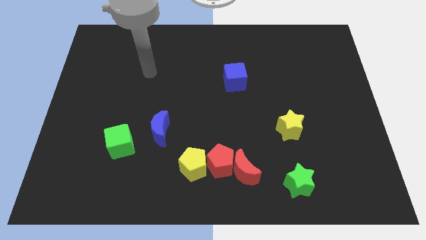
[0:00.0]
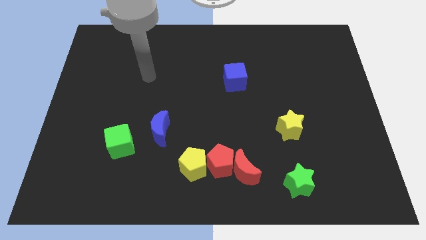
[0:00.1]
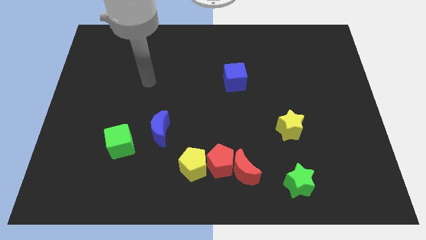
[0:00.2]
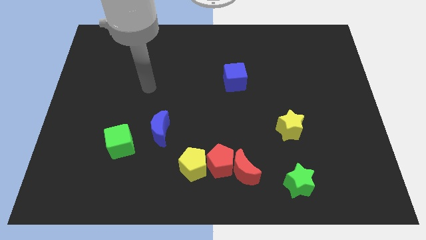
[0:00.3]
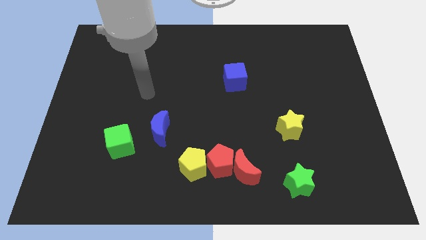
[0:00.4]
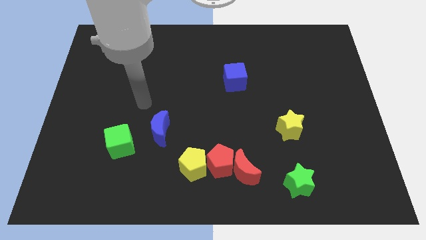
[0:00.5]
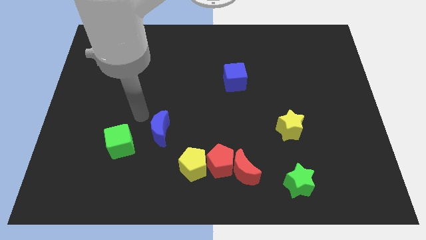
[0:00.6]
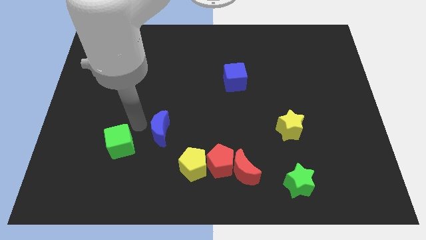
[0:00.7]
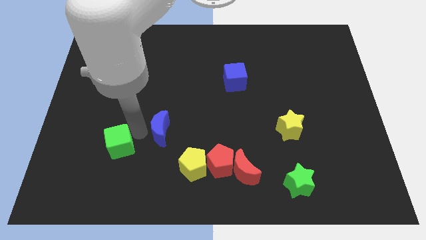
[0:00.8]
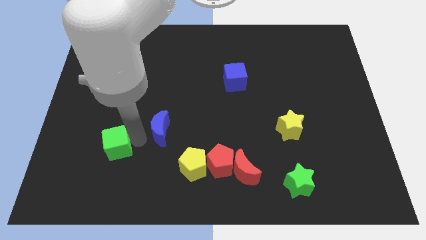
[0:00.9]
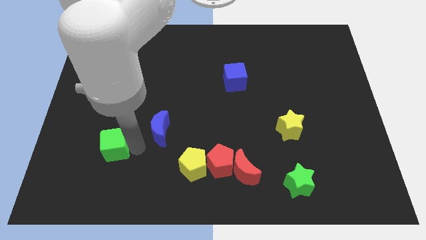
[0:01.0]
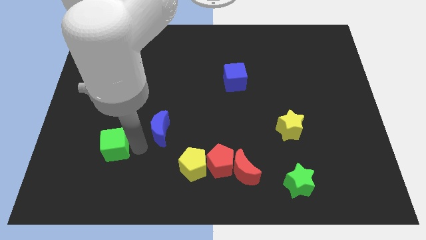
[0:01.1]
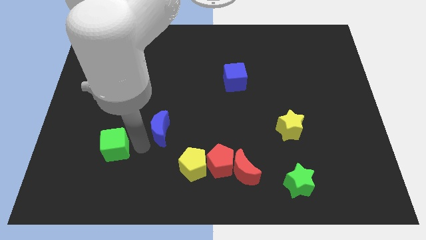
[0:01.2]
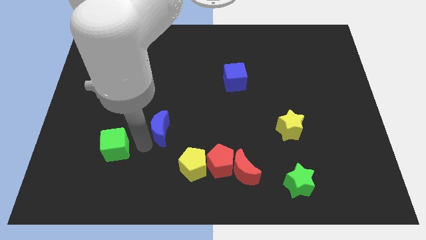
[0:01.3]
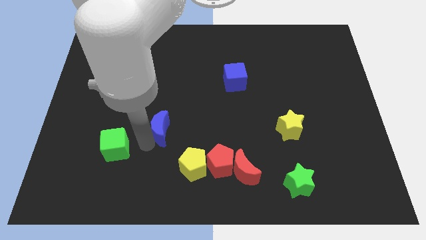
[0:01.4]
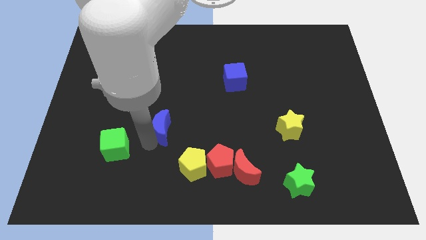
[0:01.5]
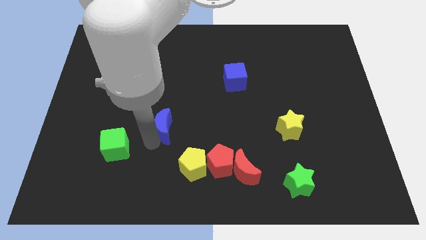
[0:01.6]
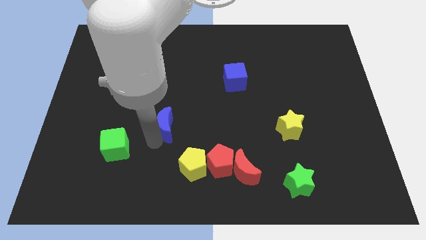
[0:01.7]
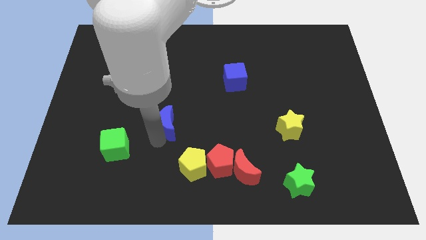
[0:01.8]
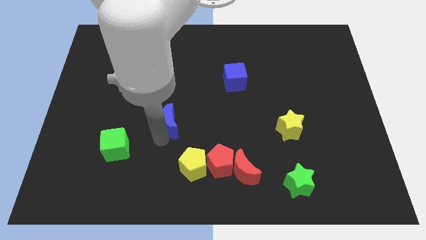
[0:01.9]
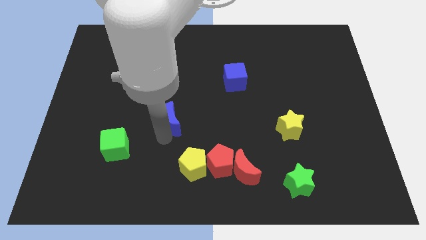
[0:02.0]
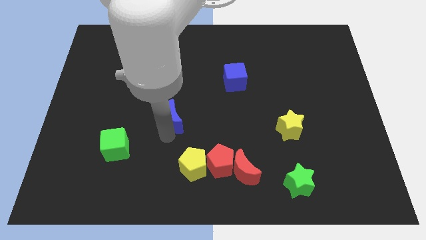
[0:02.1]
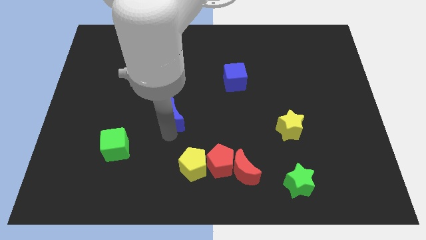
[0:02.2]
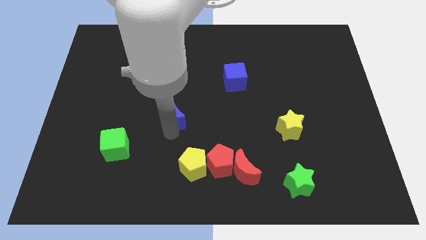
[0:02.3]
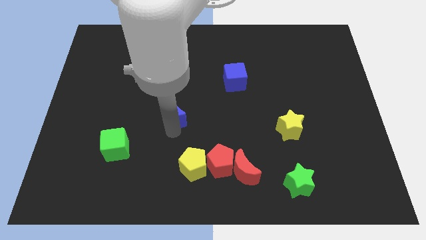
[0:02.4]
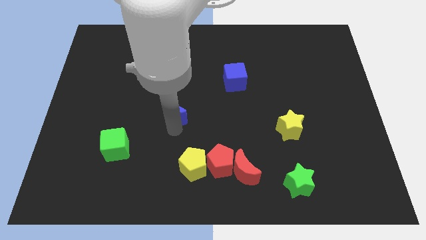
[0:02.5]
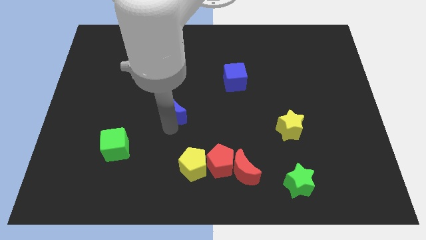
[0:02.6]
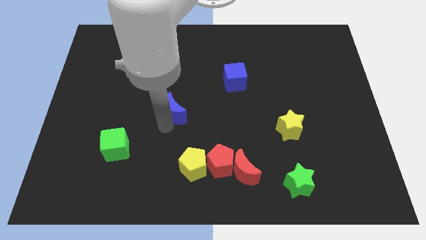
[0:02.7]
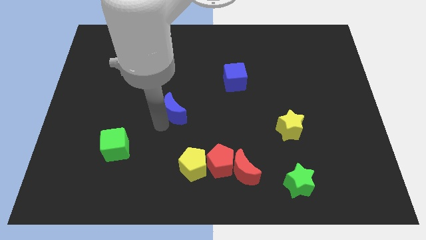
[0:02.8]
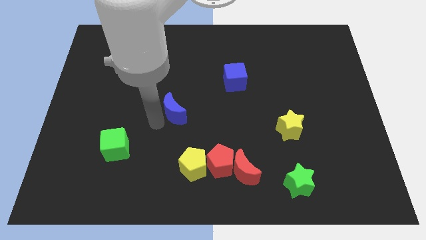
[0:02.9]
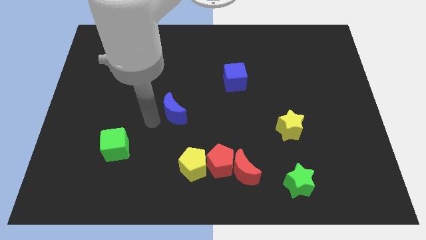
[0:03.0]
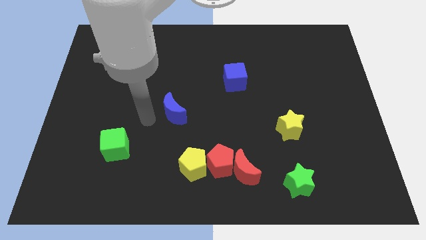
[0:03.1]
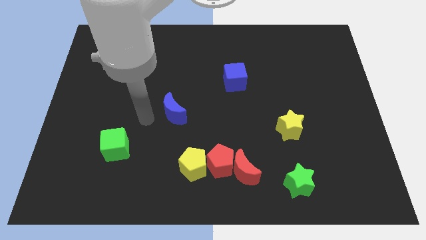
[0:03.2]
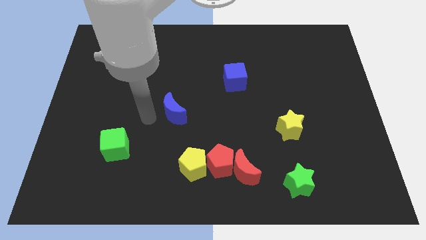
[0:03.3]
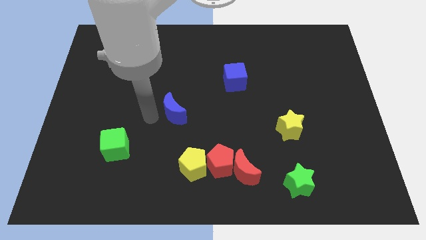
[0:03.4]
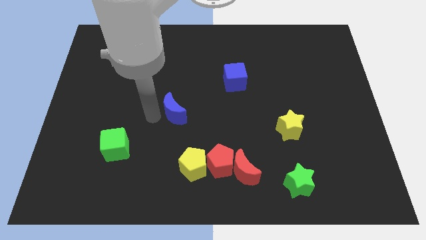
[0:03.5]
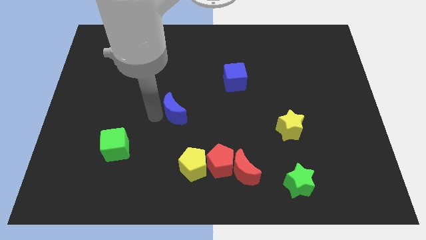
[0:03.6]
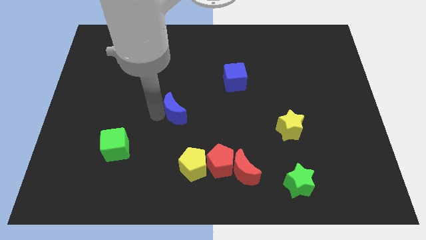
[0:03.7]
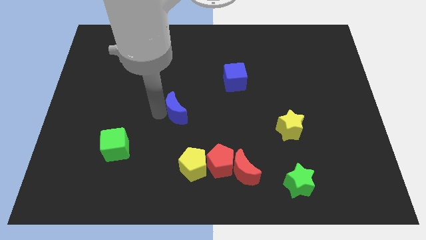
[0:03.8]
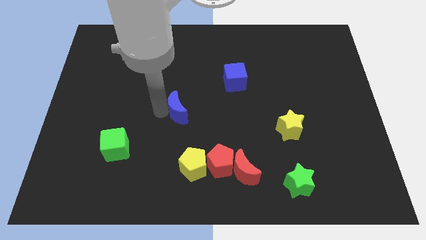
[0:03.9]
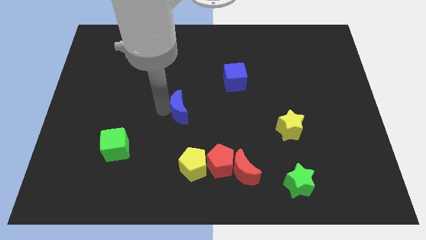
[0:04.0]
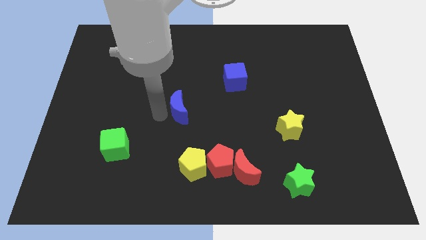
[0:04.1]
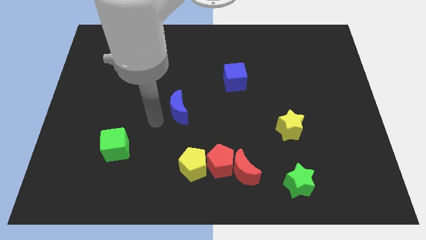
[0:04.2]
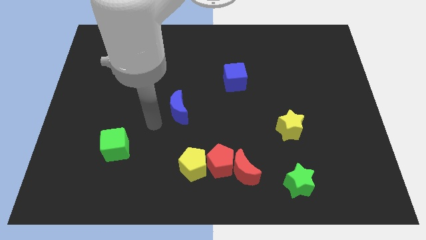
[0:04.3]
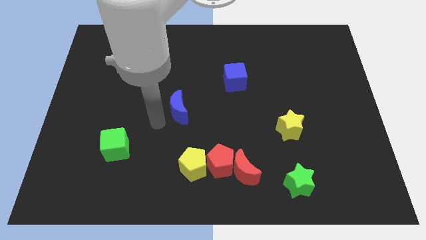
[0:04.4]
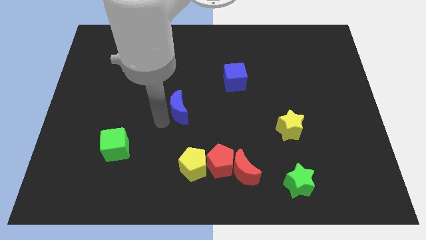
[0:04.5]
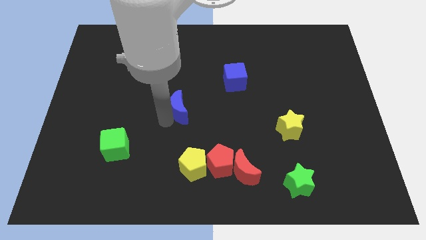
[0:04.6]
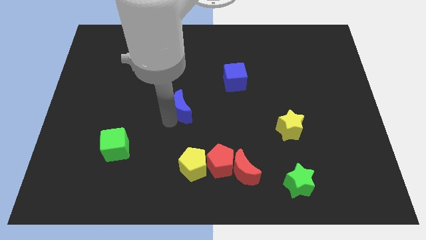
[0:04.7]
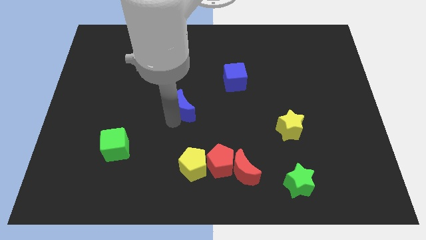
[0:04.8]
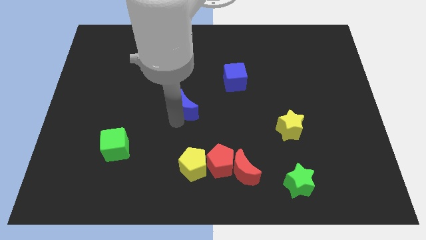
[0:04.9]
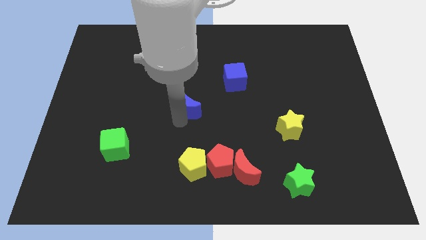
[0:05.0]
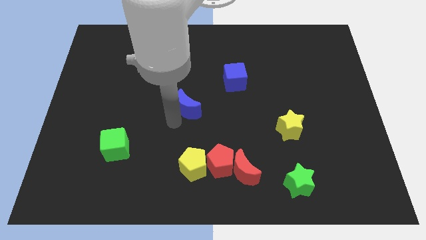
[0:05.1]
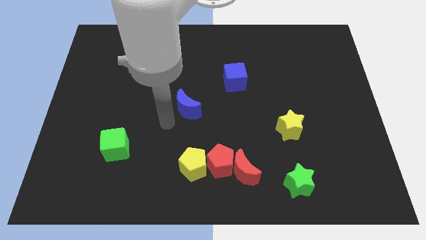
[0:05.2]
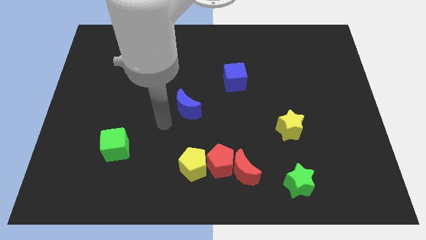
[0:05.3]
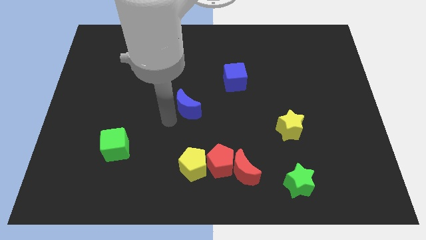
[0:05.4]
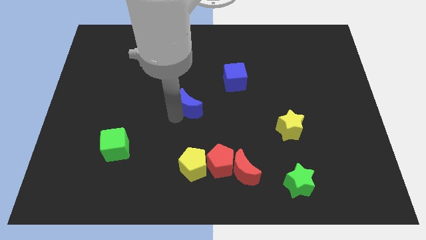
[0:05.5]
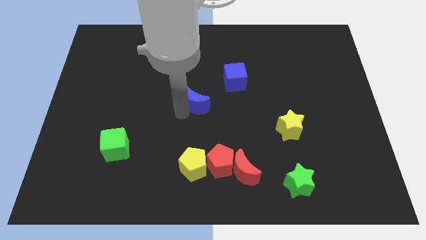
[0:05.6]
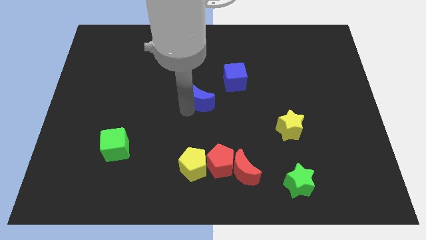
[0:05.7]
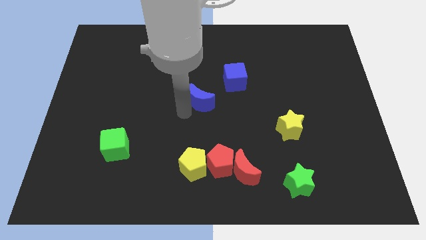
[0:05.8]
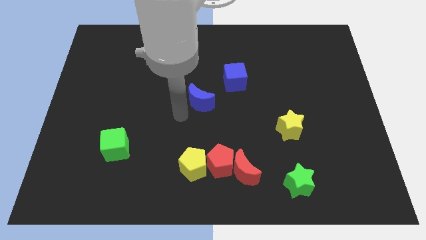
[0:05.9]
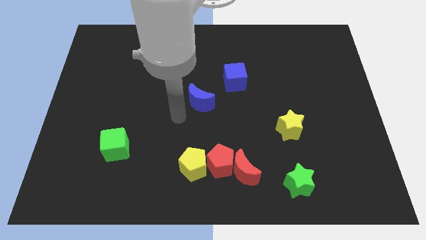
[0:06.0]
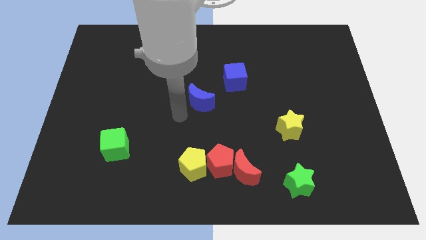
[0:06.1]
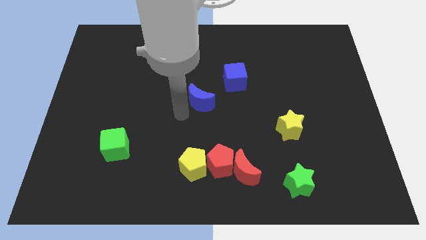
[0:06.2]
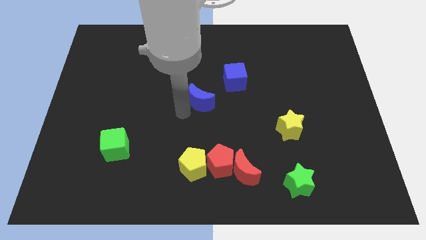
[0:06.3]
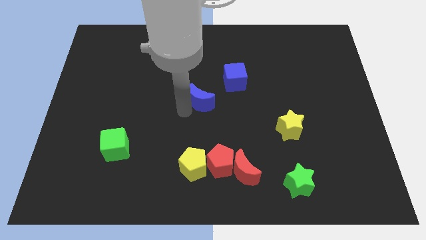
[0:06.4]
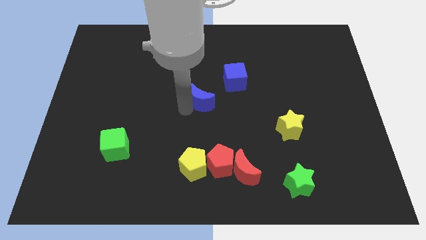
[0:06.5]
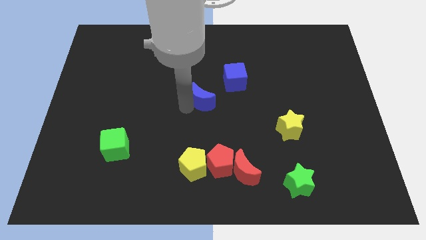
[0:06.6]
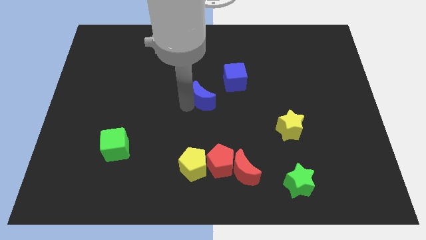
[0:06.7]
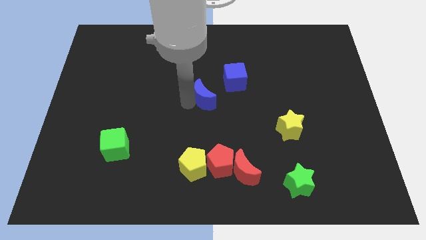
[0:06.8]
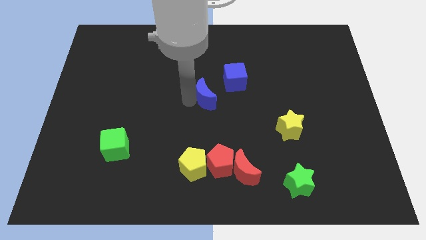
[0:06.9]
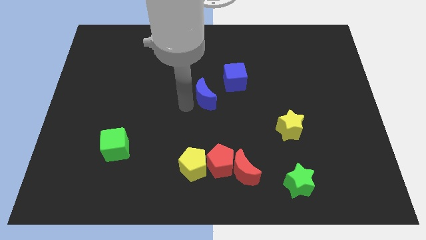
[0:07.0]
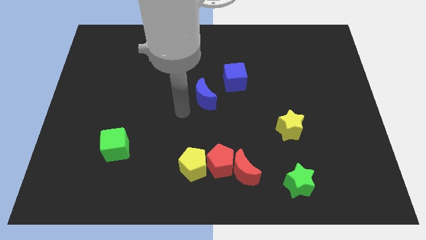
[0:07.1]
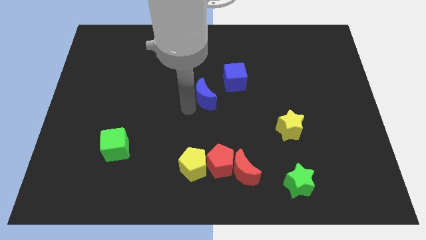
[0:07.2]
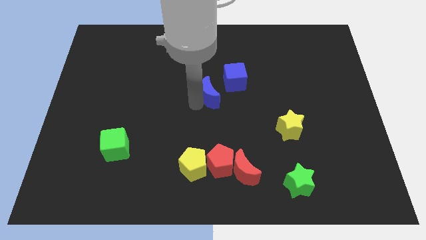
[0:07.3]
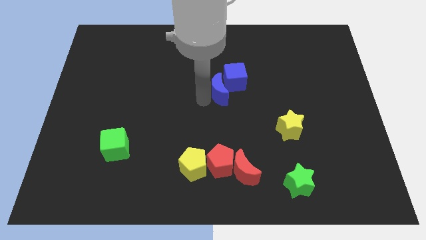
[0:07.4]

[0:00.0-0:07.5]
push the blue moon to the blue cube

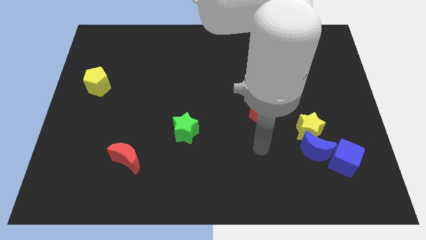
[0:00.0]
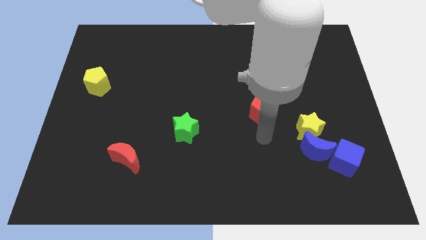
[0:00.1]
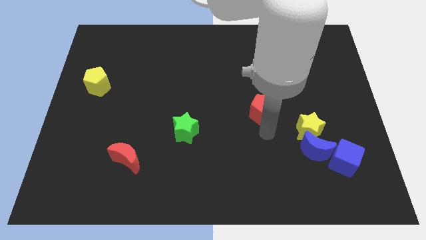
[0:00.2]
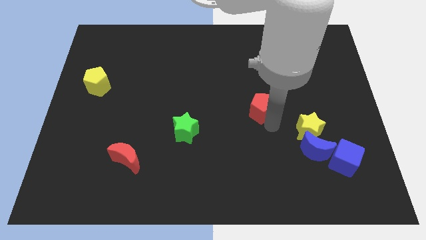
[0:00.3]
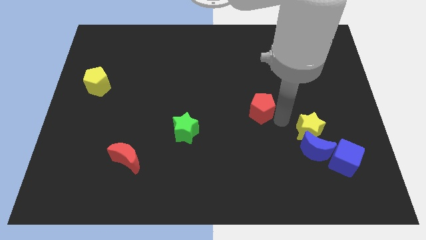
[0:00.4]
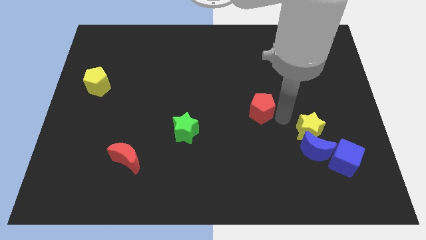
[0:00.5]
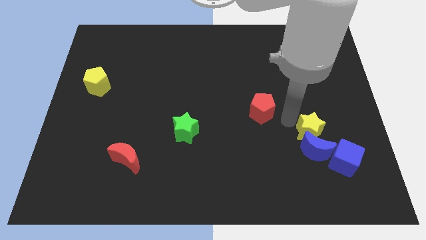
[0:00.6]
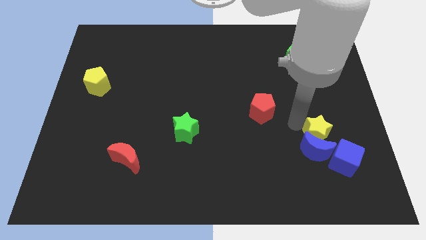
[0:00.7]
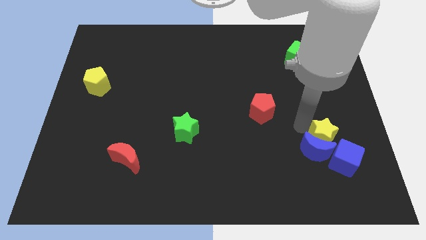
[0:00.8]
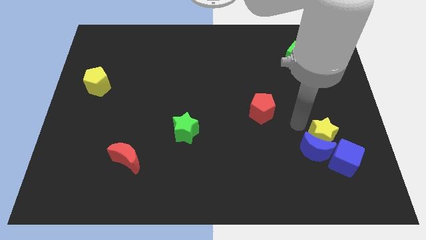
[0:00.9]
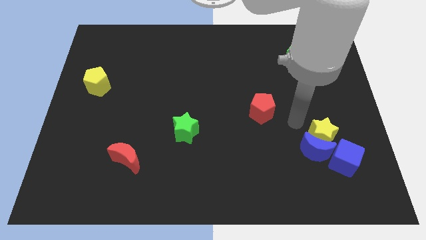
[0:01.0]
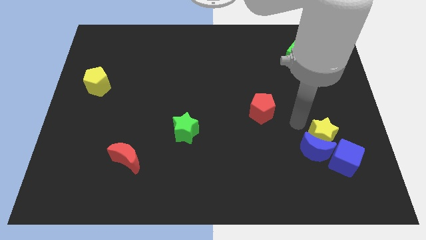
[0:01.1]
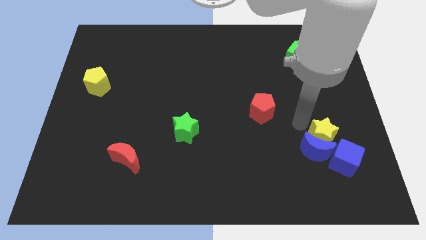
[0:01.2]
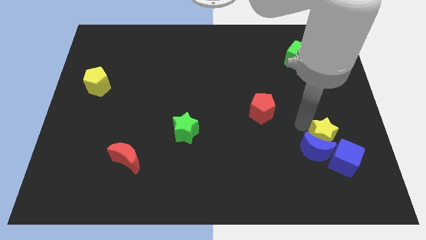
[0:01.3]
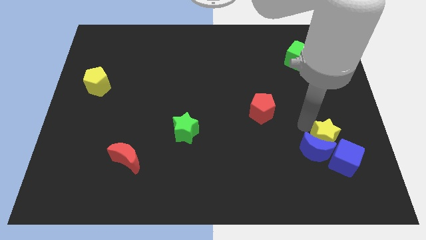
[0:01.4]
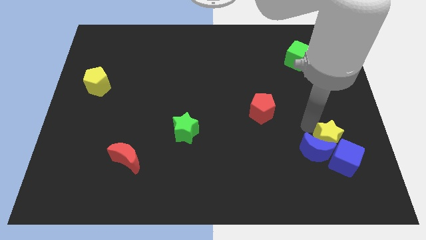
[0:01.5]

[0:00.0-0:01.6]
push the yellow star to the blue cube
